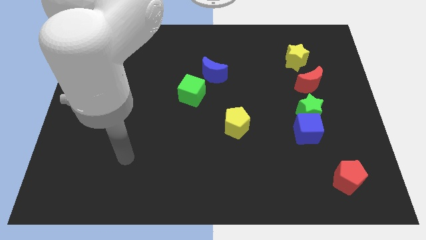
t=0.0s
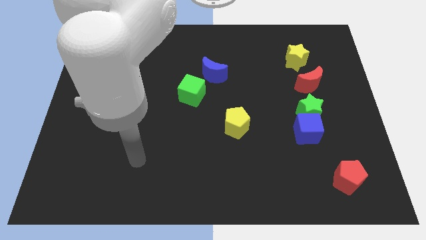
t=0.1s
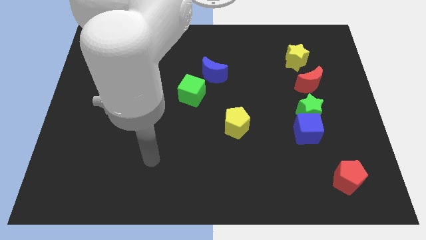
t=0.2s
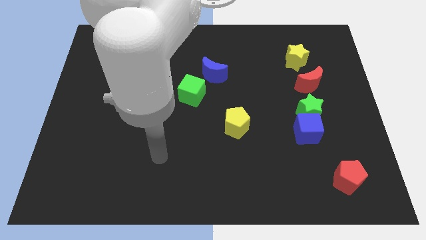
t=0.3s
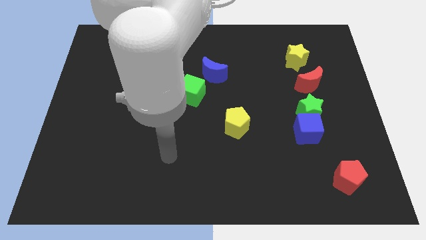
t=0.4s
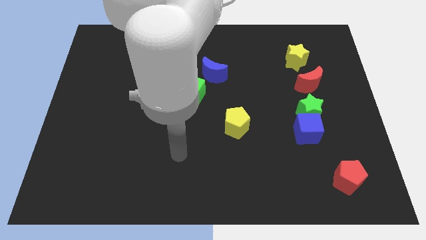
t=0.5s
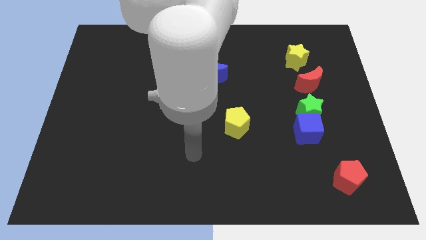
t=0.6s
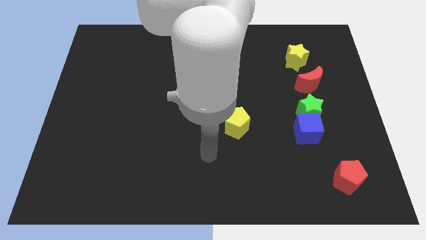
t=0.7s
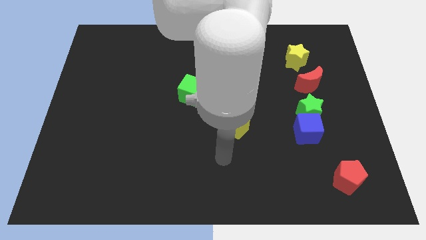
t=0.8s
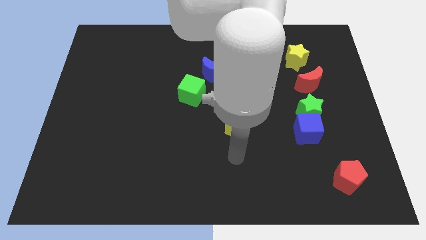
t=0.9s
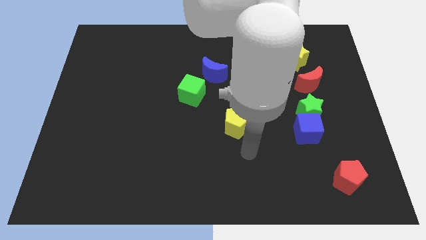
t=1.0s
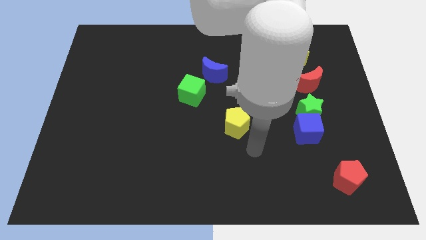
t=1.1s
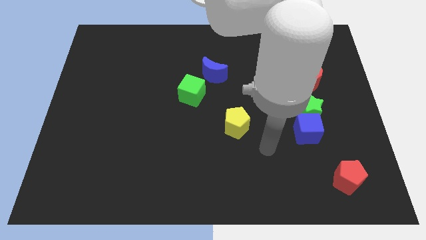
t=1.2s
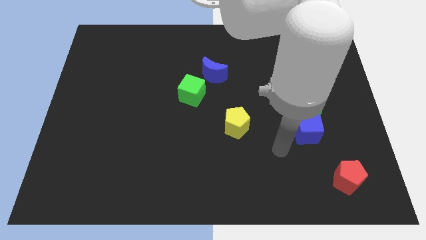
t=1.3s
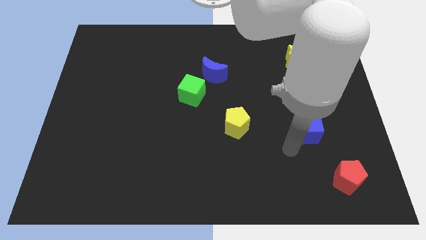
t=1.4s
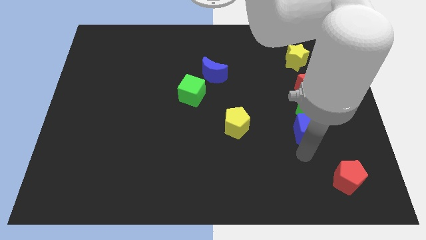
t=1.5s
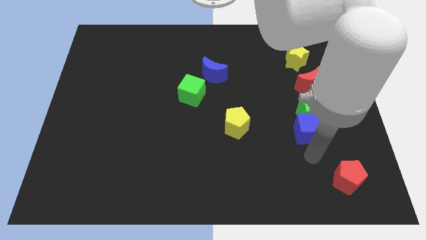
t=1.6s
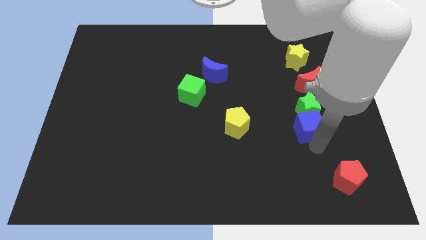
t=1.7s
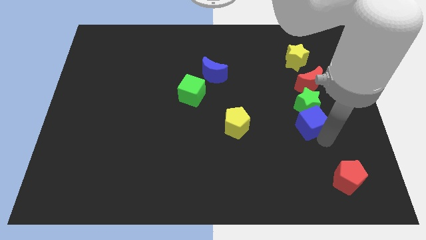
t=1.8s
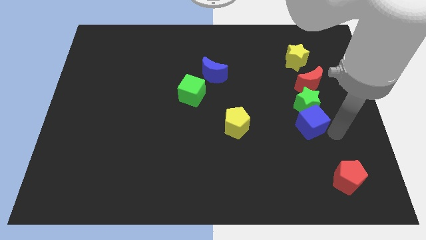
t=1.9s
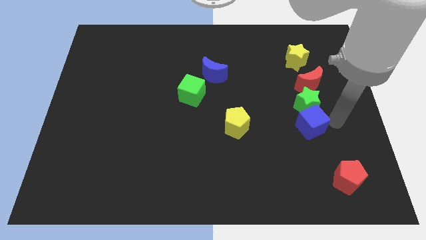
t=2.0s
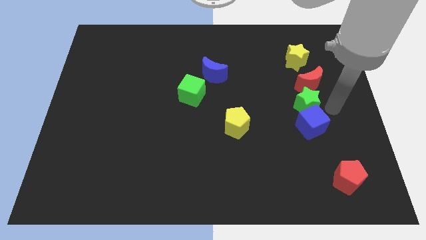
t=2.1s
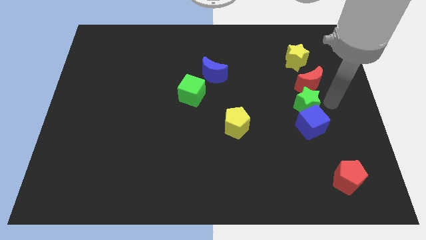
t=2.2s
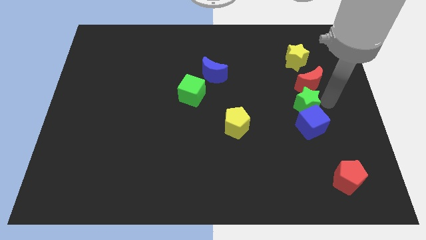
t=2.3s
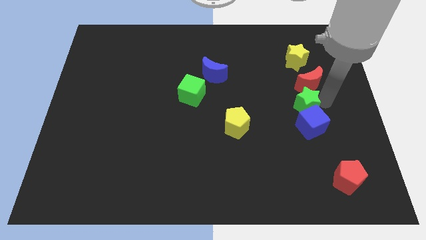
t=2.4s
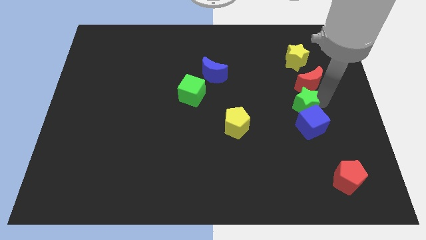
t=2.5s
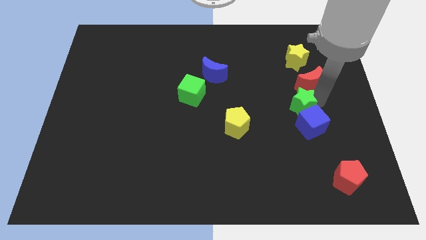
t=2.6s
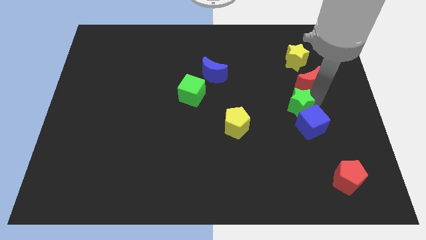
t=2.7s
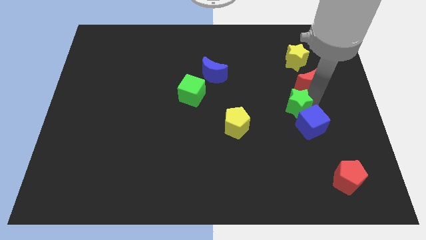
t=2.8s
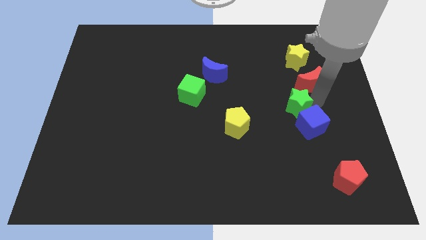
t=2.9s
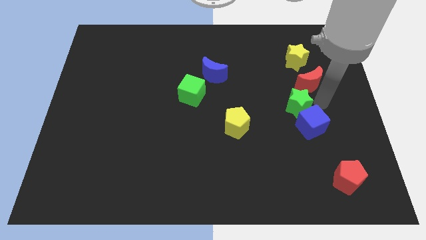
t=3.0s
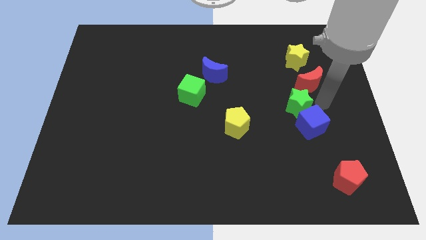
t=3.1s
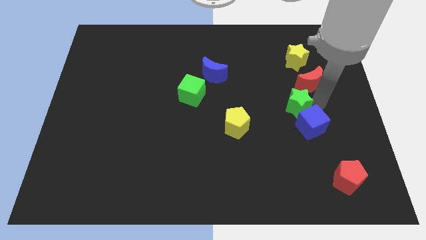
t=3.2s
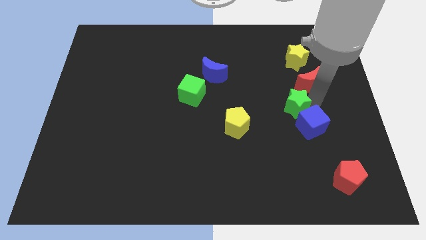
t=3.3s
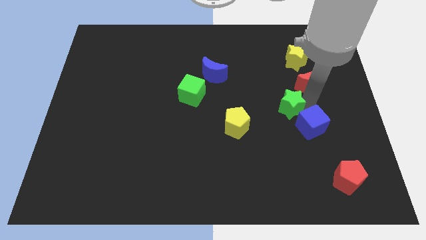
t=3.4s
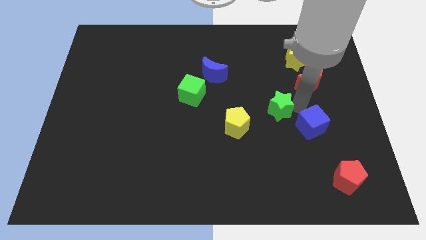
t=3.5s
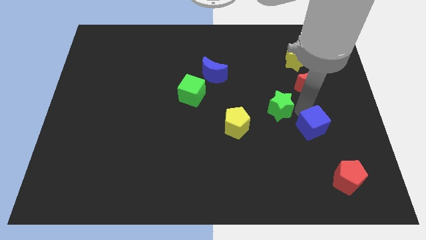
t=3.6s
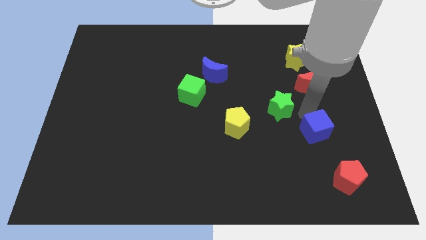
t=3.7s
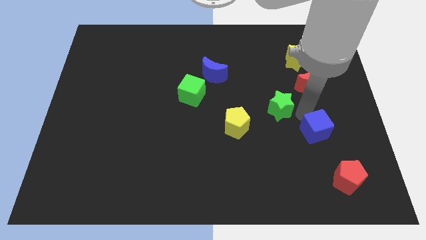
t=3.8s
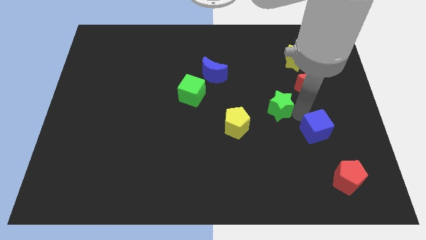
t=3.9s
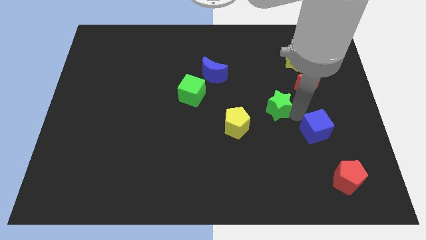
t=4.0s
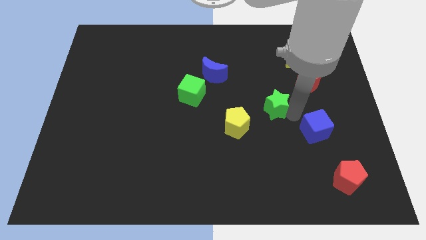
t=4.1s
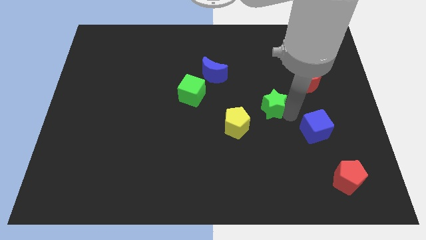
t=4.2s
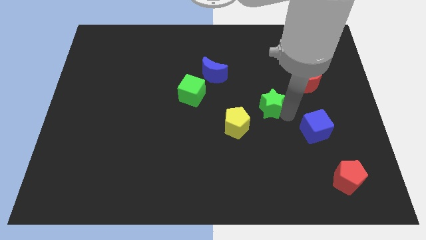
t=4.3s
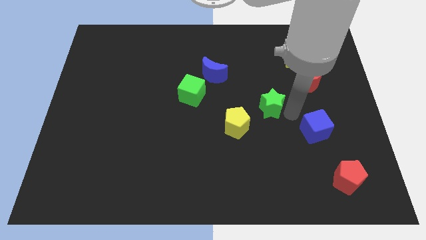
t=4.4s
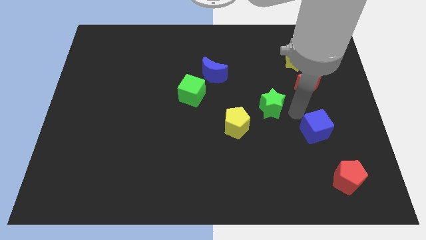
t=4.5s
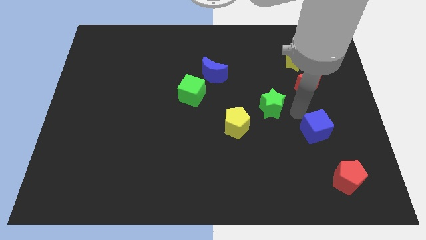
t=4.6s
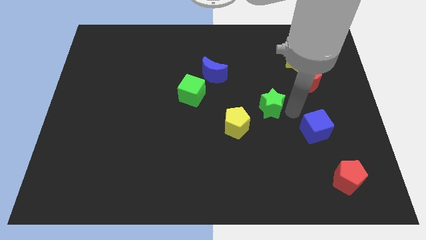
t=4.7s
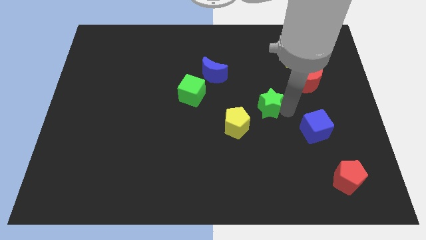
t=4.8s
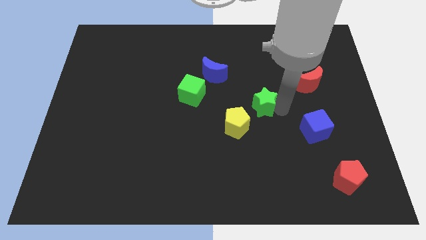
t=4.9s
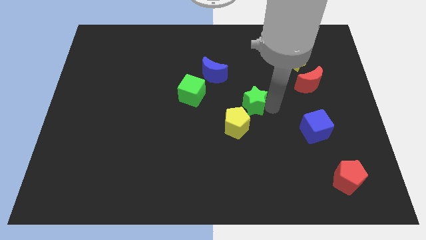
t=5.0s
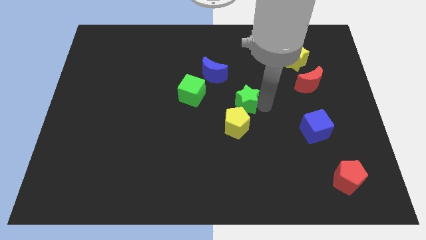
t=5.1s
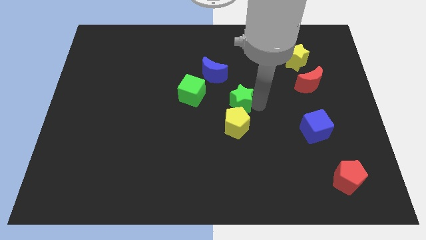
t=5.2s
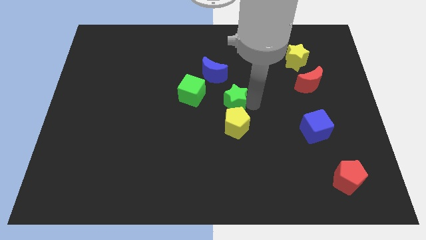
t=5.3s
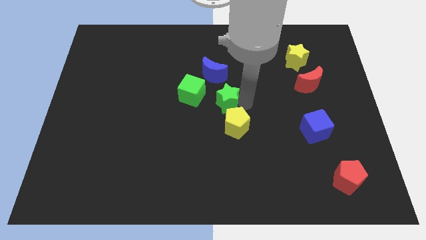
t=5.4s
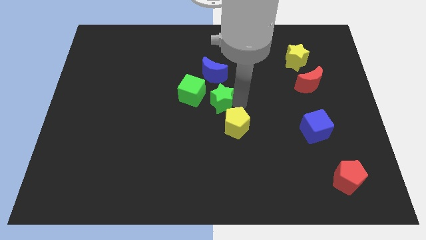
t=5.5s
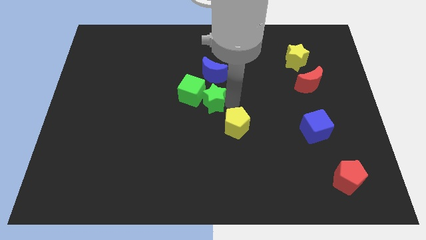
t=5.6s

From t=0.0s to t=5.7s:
put the green star close to the green cube

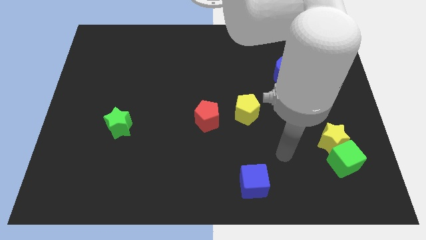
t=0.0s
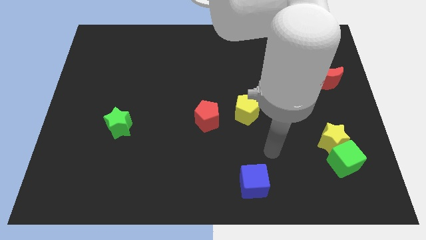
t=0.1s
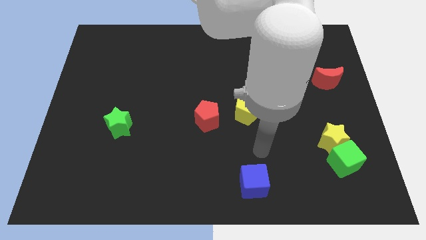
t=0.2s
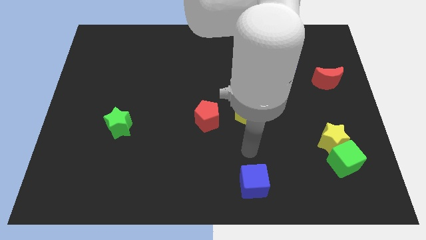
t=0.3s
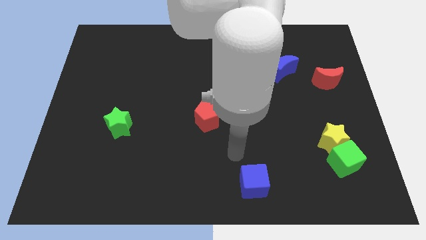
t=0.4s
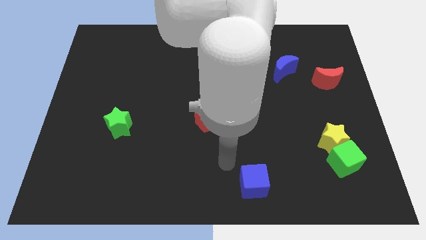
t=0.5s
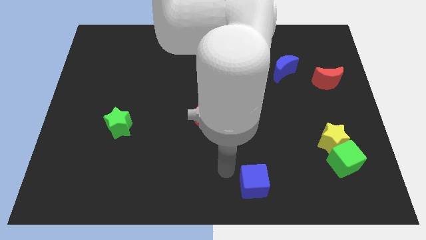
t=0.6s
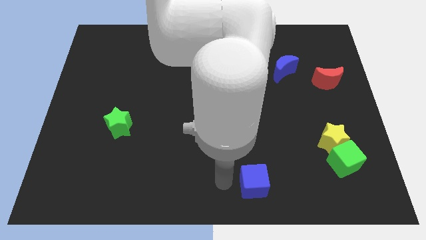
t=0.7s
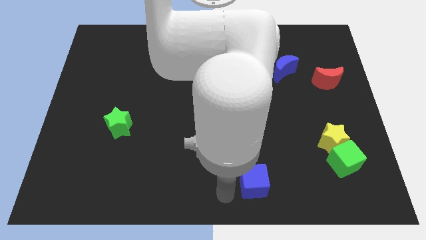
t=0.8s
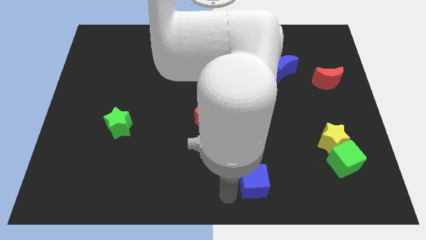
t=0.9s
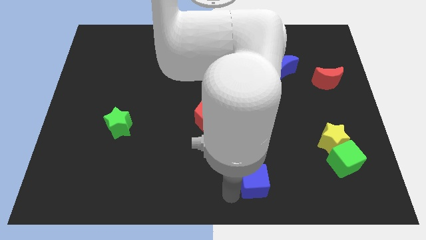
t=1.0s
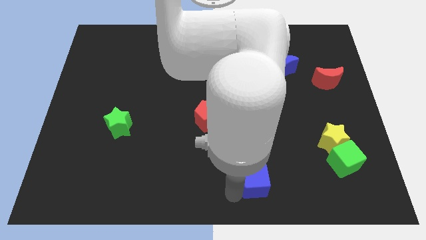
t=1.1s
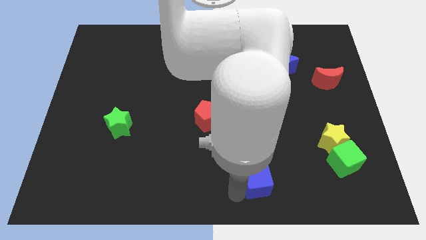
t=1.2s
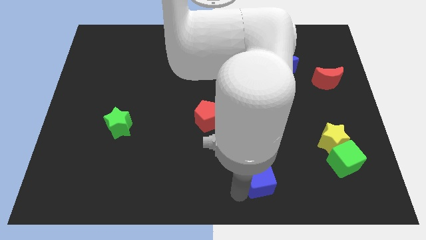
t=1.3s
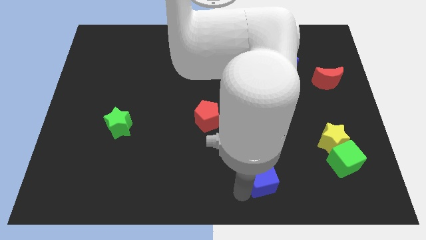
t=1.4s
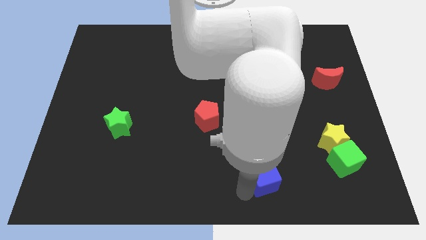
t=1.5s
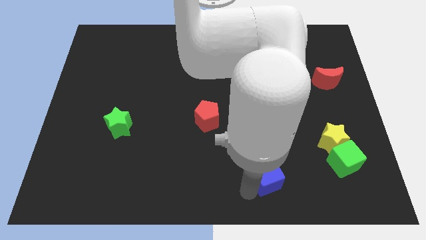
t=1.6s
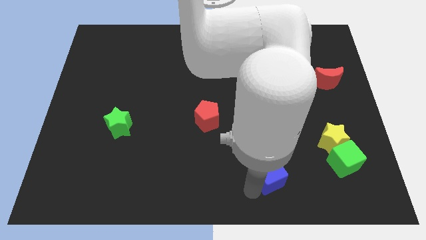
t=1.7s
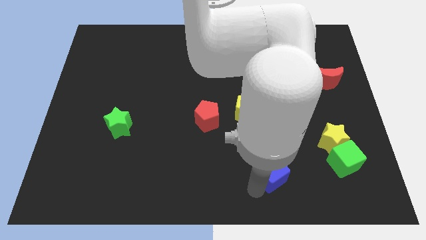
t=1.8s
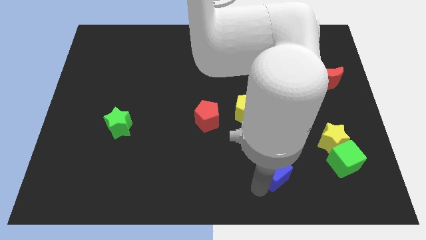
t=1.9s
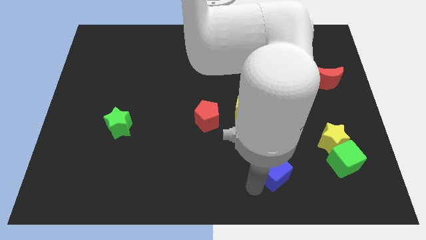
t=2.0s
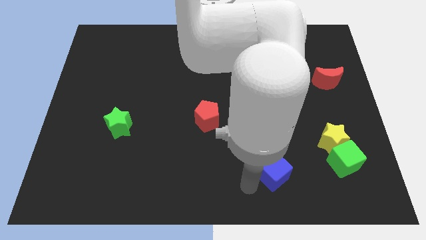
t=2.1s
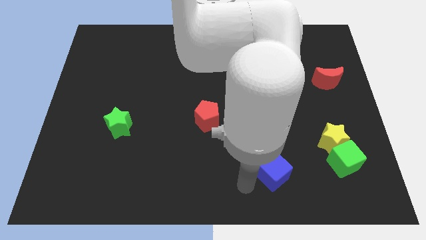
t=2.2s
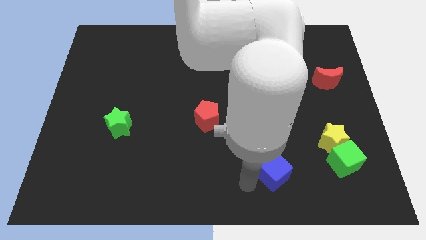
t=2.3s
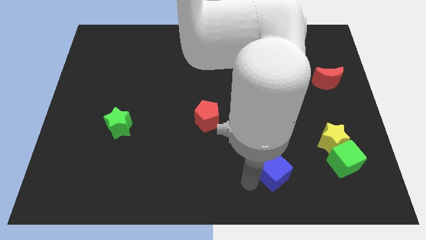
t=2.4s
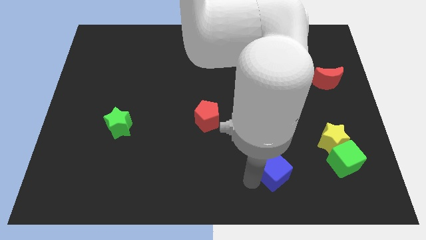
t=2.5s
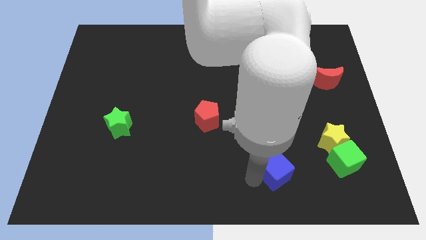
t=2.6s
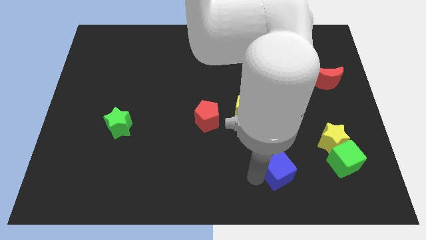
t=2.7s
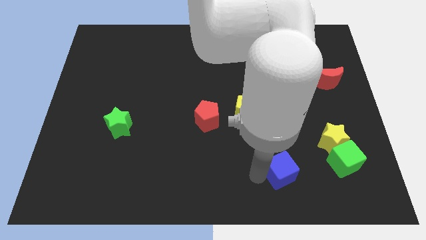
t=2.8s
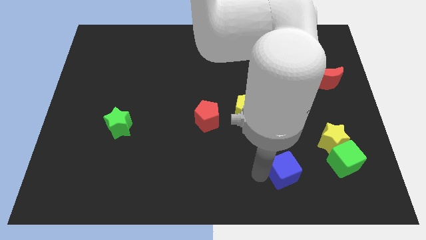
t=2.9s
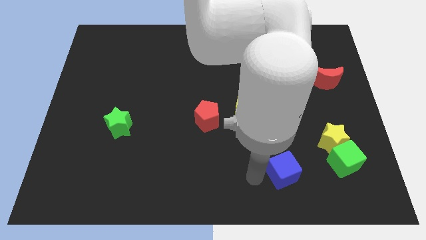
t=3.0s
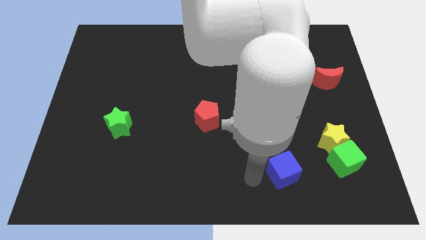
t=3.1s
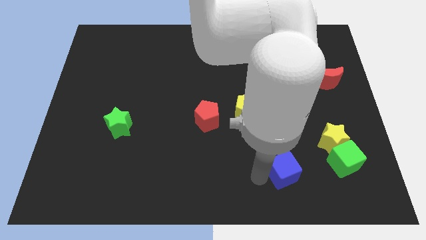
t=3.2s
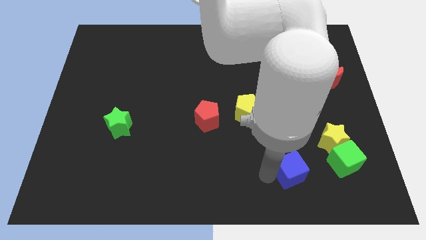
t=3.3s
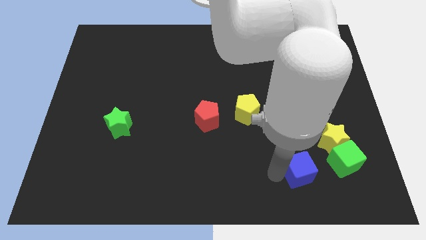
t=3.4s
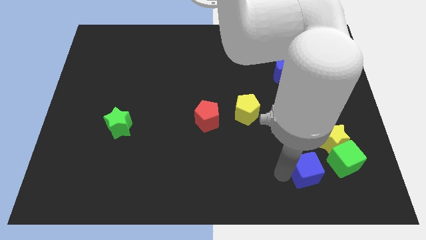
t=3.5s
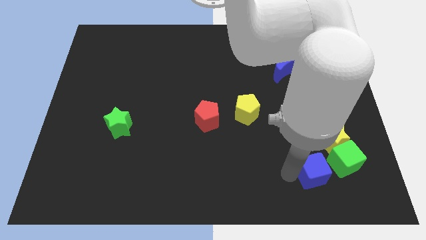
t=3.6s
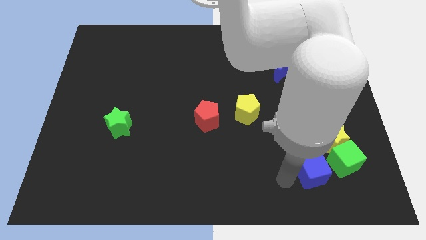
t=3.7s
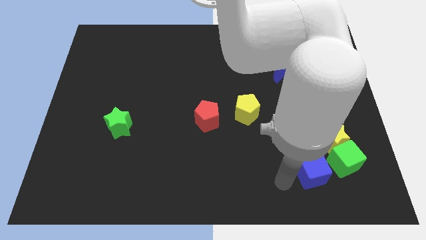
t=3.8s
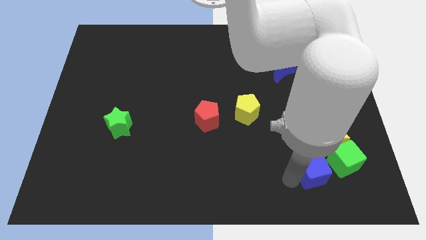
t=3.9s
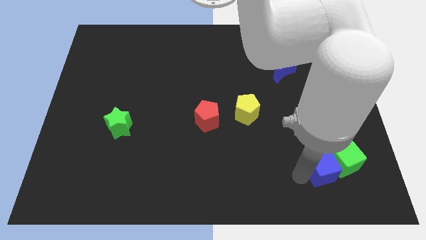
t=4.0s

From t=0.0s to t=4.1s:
put the blue cube next to the green cube
